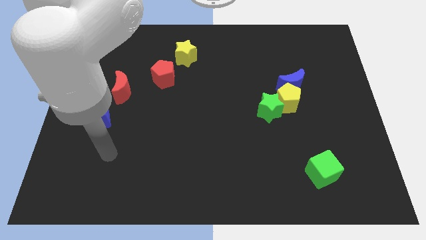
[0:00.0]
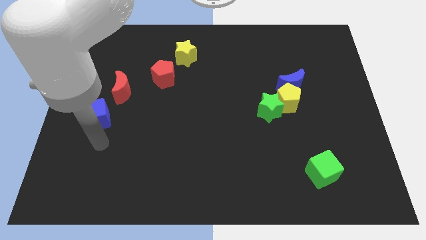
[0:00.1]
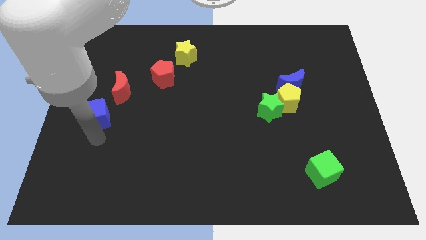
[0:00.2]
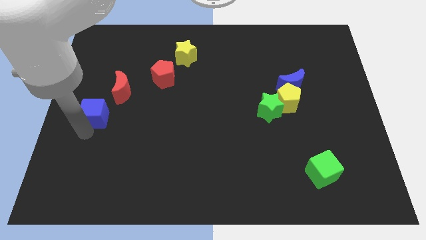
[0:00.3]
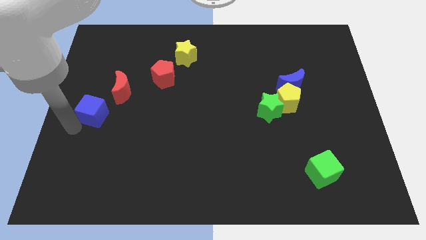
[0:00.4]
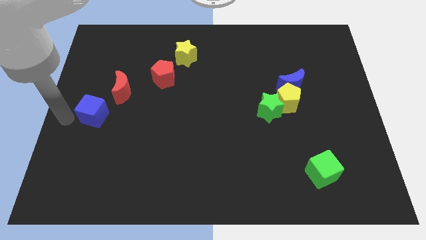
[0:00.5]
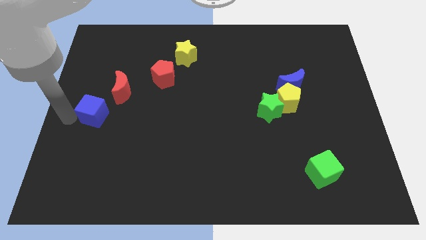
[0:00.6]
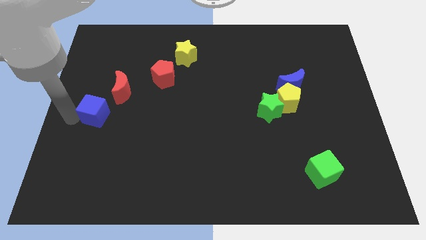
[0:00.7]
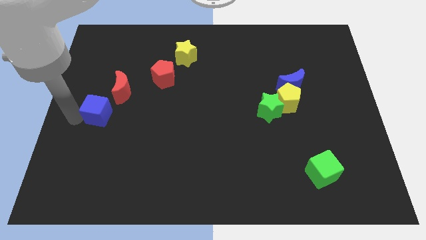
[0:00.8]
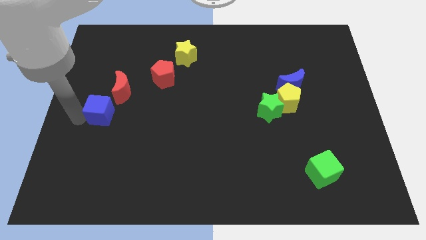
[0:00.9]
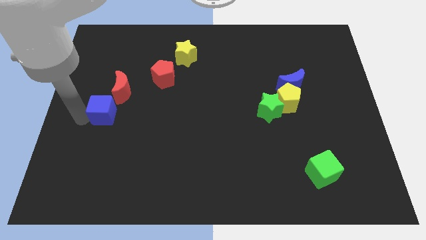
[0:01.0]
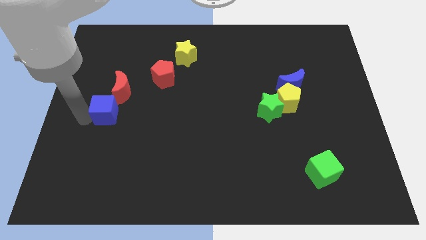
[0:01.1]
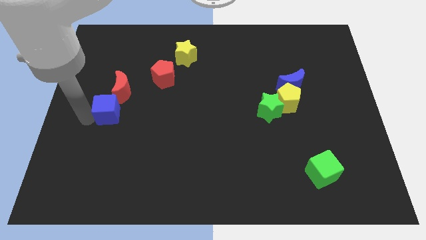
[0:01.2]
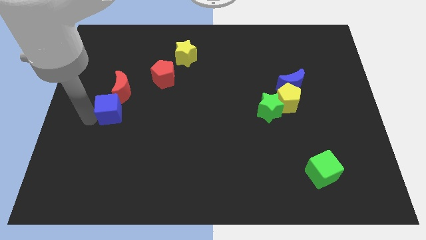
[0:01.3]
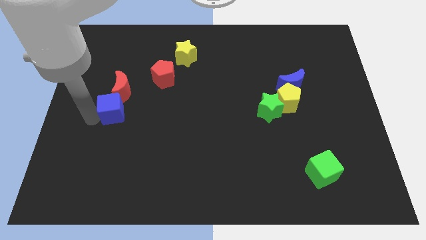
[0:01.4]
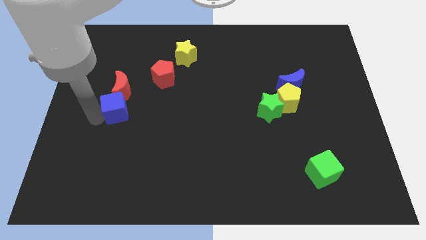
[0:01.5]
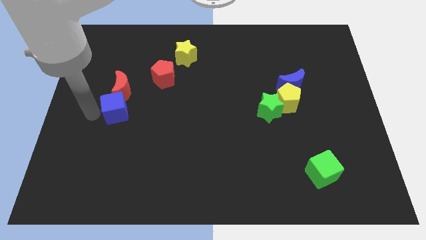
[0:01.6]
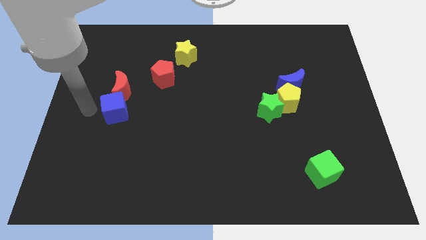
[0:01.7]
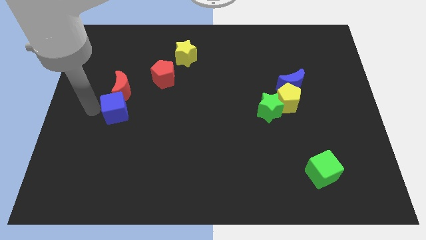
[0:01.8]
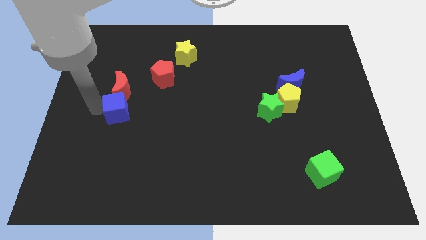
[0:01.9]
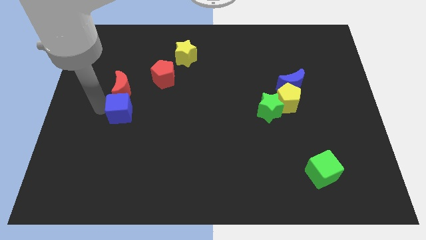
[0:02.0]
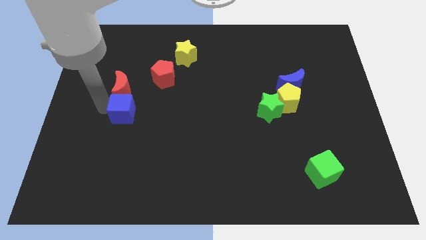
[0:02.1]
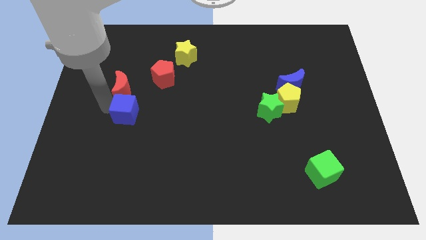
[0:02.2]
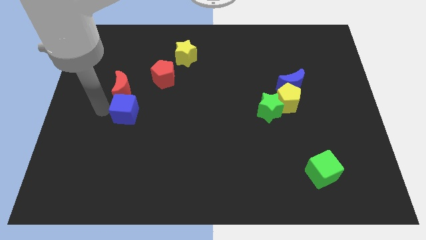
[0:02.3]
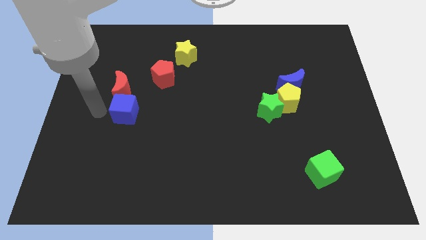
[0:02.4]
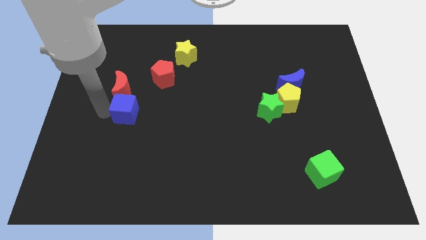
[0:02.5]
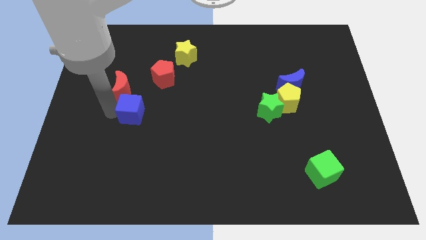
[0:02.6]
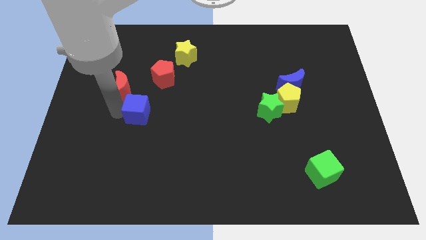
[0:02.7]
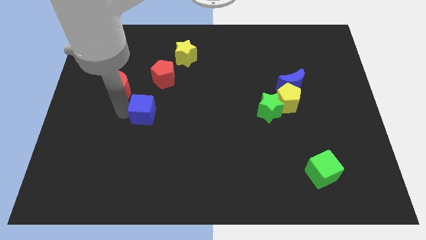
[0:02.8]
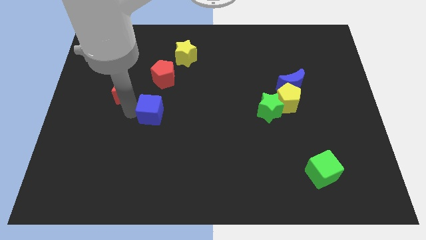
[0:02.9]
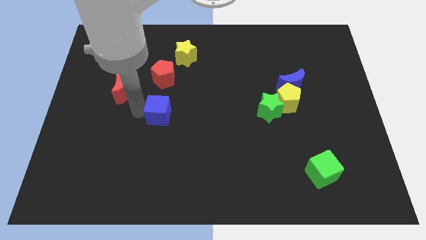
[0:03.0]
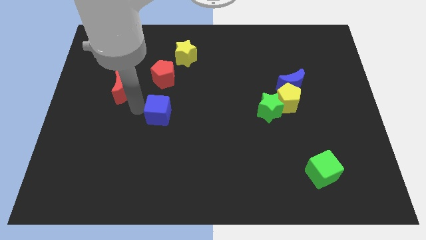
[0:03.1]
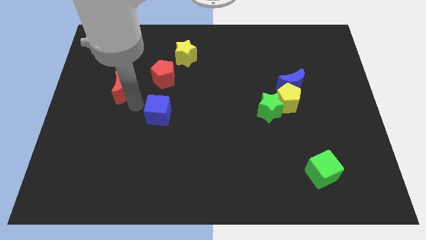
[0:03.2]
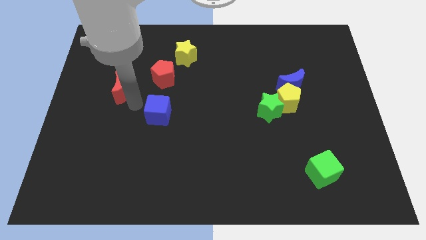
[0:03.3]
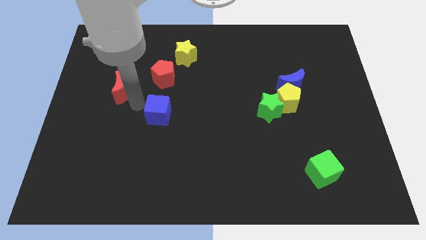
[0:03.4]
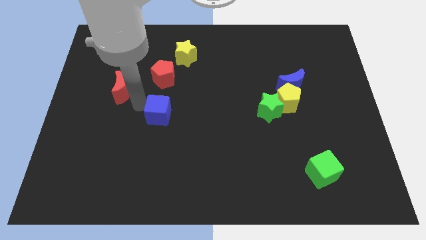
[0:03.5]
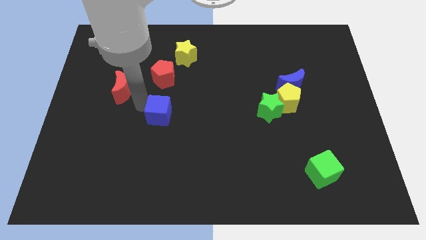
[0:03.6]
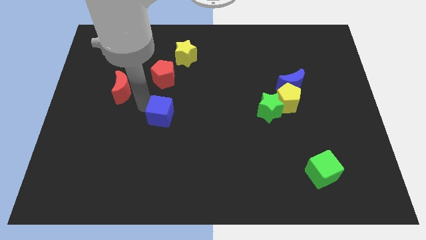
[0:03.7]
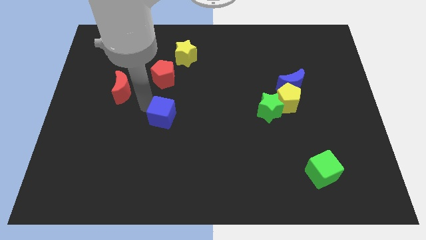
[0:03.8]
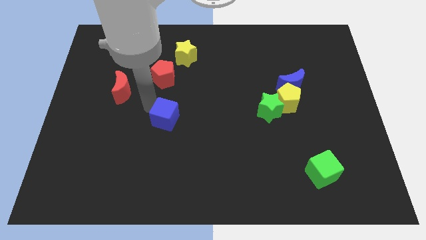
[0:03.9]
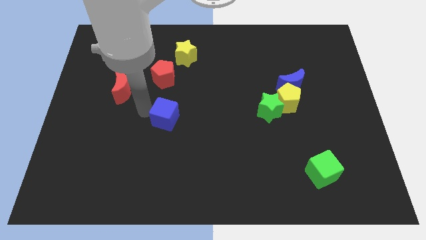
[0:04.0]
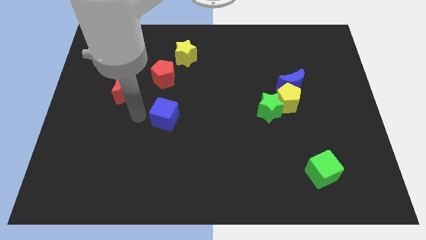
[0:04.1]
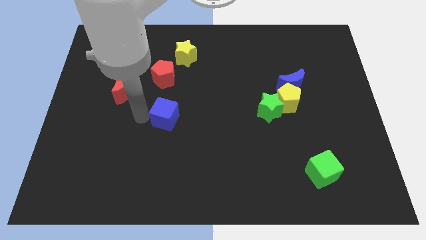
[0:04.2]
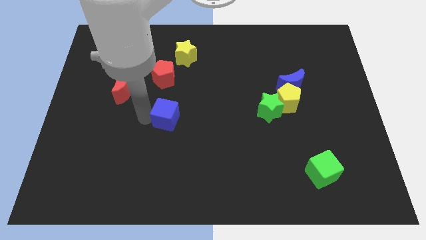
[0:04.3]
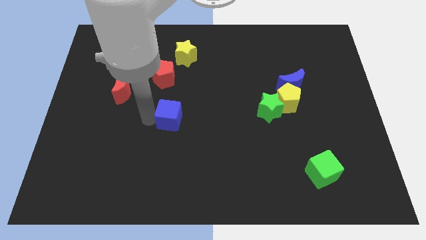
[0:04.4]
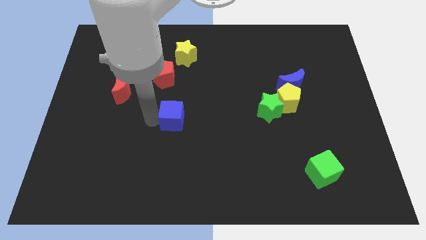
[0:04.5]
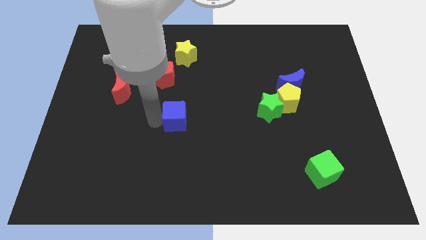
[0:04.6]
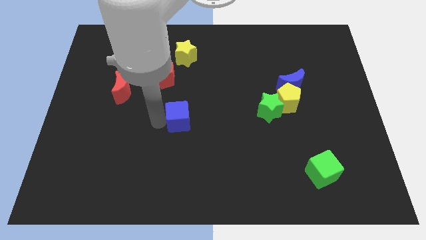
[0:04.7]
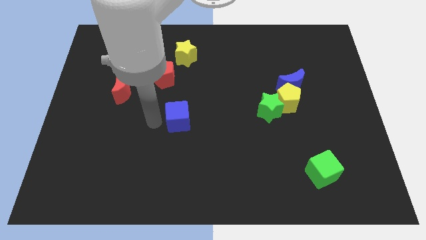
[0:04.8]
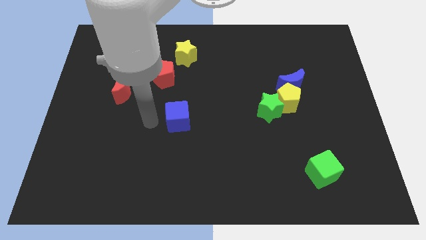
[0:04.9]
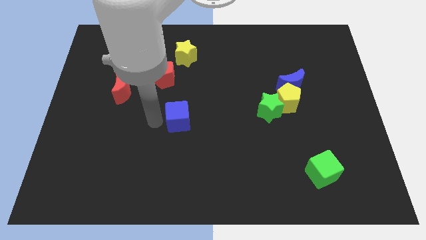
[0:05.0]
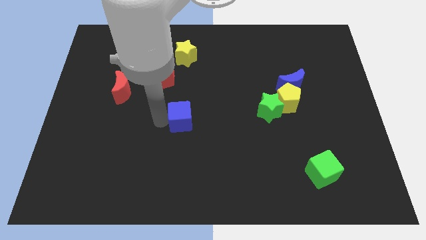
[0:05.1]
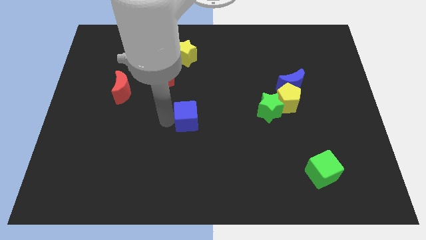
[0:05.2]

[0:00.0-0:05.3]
move the blue cube to the right

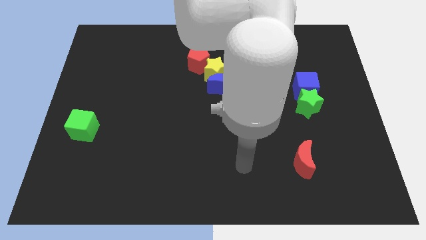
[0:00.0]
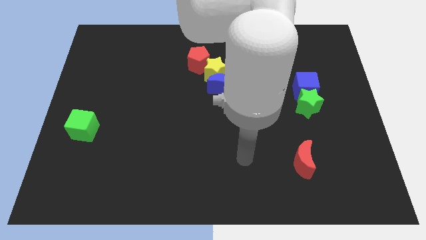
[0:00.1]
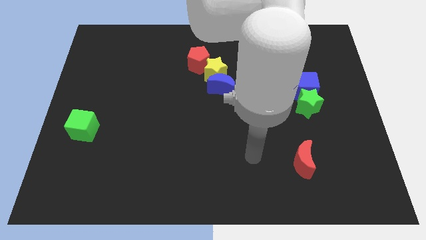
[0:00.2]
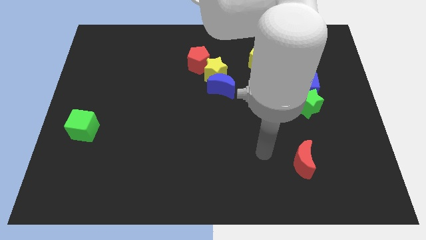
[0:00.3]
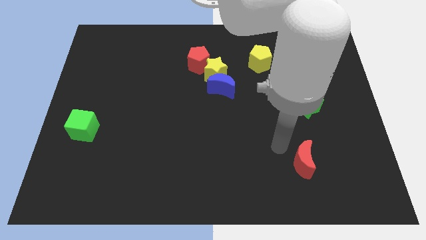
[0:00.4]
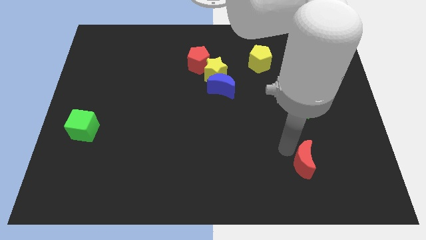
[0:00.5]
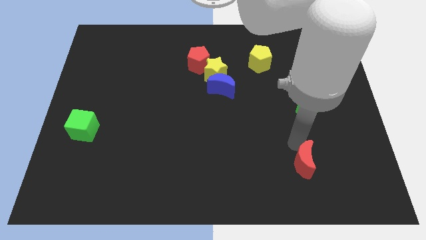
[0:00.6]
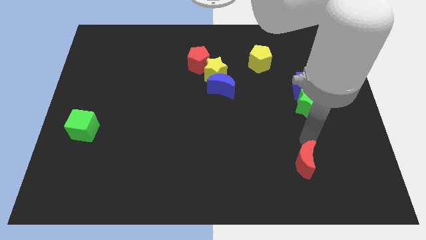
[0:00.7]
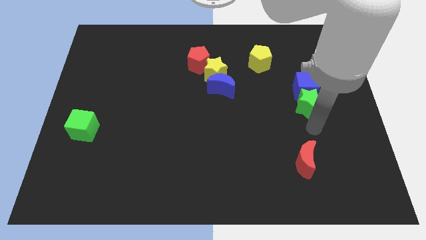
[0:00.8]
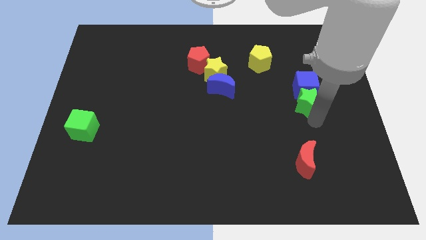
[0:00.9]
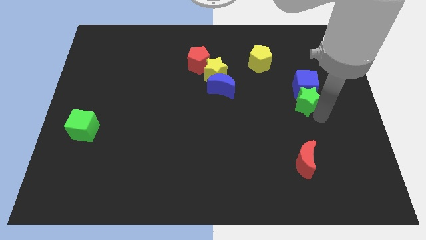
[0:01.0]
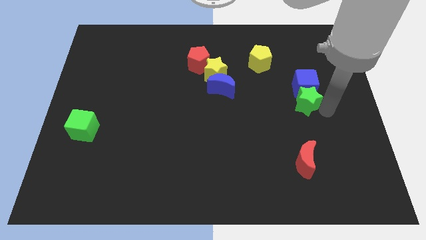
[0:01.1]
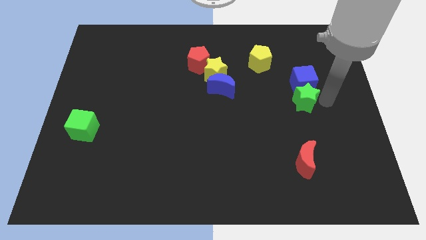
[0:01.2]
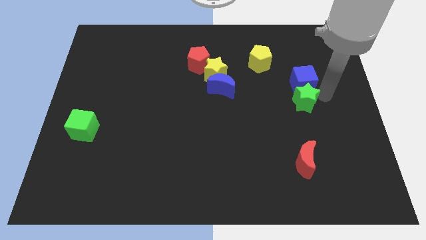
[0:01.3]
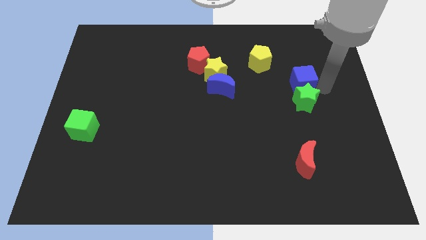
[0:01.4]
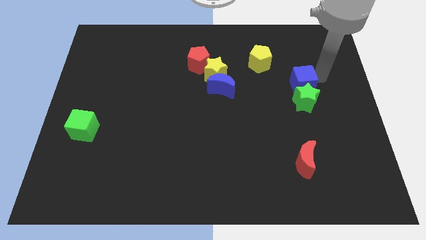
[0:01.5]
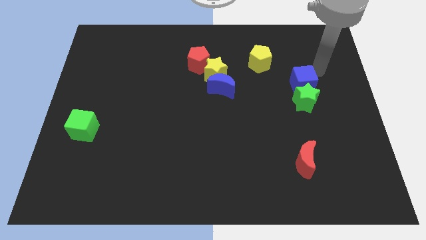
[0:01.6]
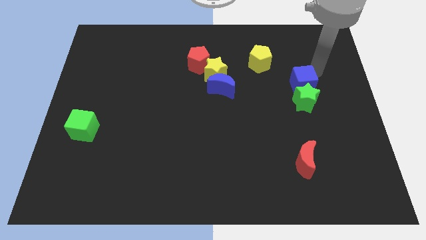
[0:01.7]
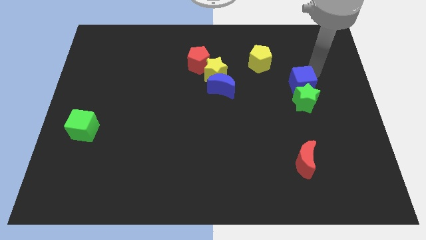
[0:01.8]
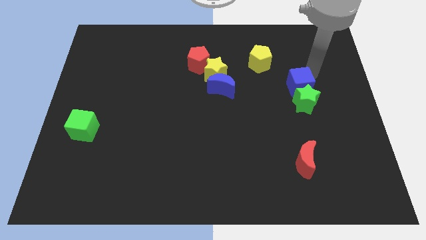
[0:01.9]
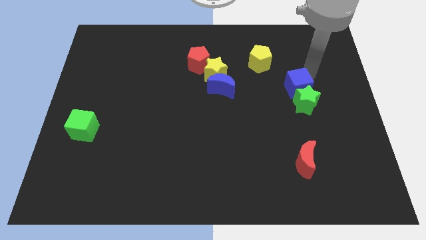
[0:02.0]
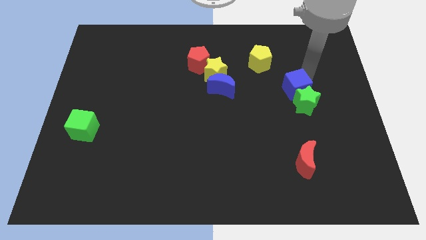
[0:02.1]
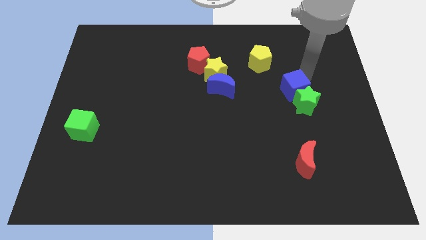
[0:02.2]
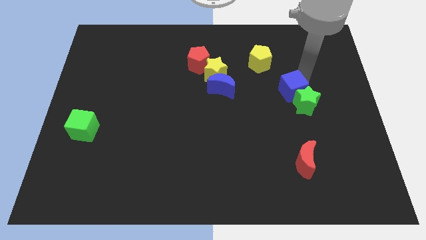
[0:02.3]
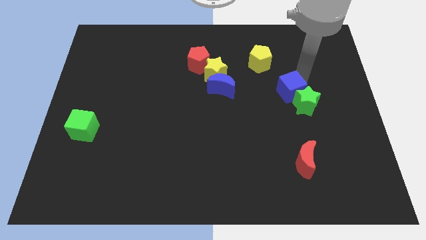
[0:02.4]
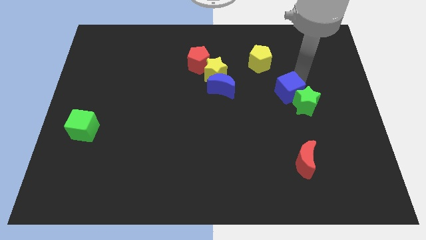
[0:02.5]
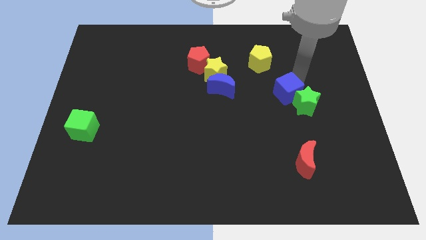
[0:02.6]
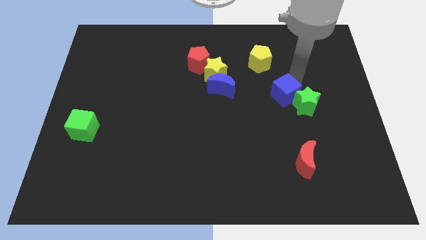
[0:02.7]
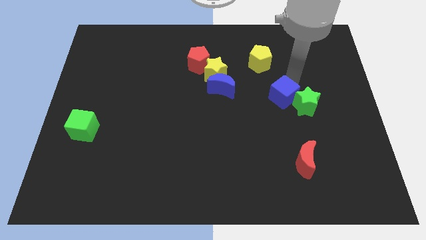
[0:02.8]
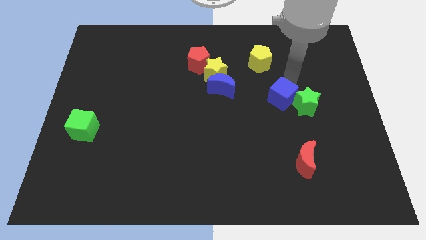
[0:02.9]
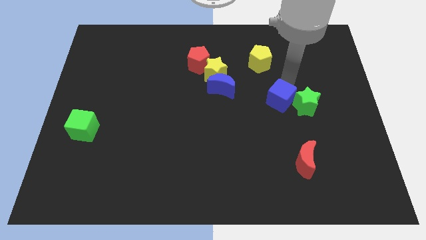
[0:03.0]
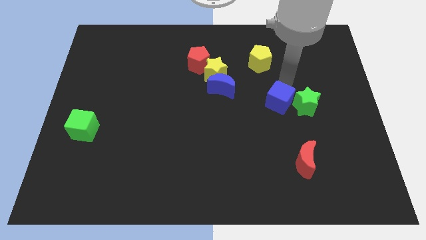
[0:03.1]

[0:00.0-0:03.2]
move the blue cube downwards and left slightly
